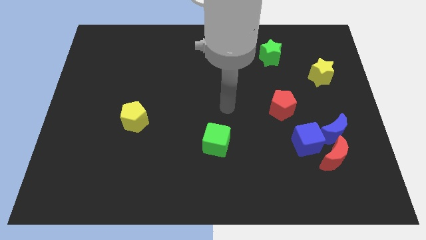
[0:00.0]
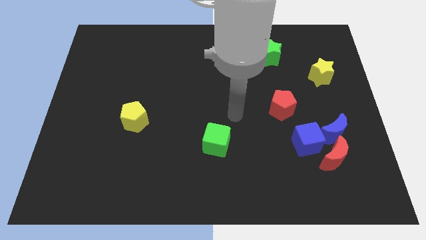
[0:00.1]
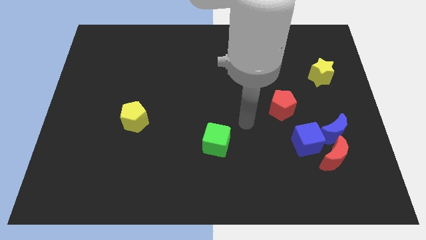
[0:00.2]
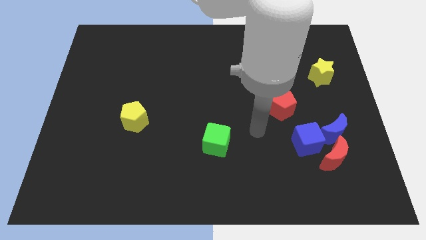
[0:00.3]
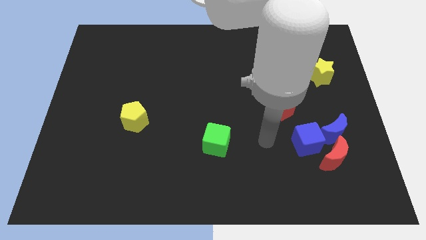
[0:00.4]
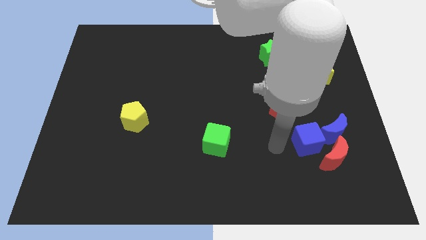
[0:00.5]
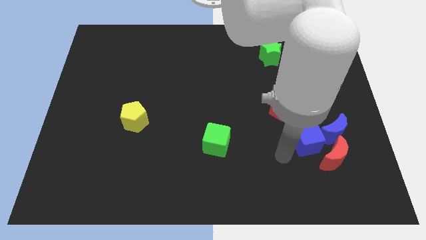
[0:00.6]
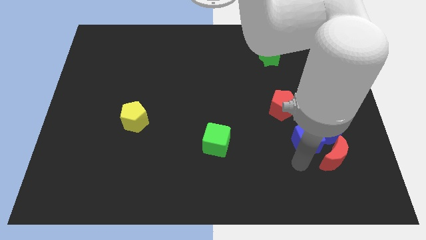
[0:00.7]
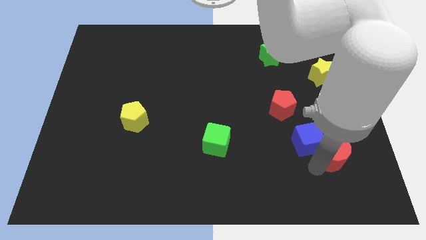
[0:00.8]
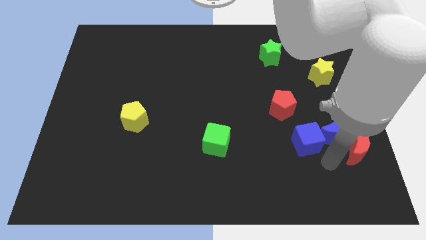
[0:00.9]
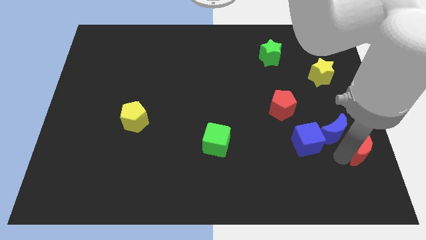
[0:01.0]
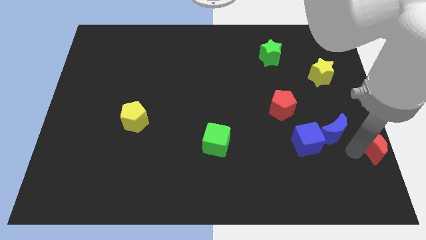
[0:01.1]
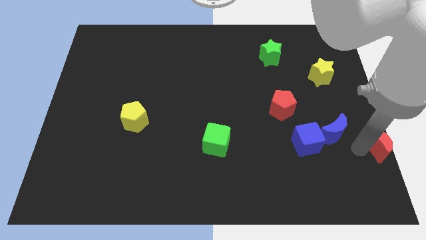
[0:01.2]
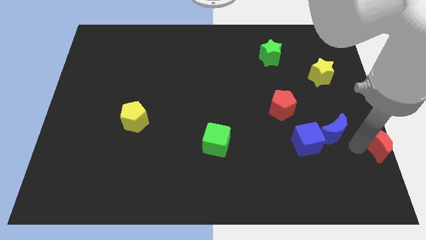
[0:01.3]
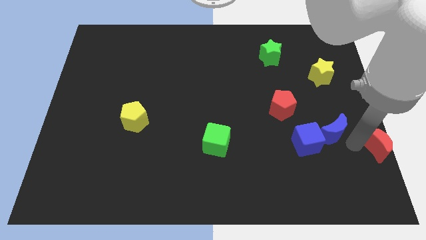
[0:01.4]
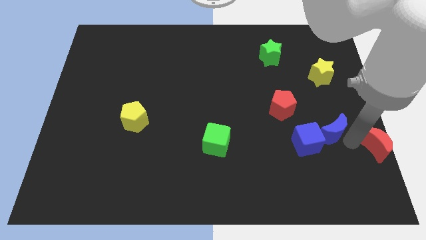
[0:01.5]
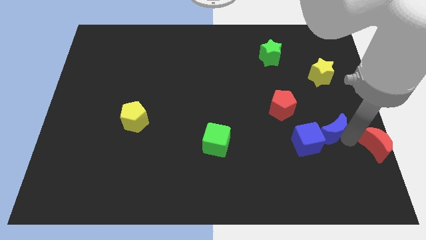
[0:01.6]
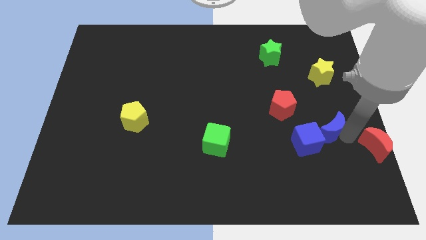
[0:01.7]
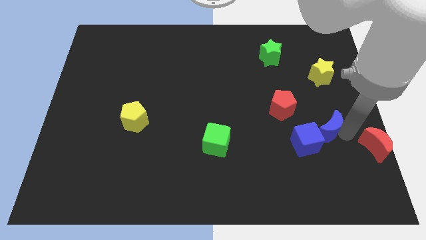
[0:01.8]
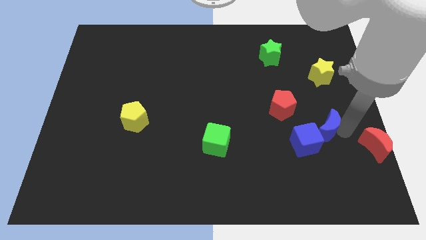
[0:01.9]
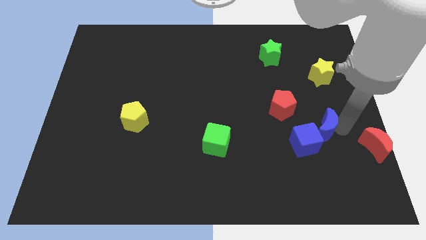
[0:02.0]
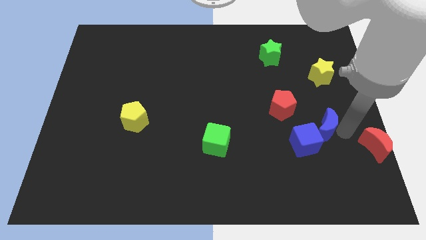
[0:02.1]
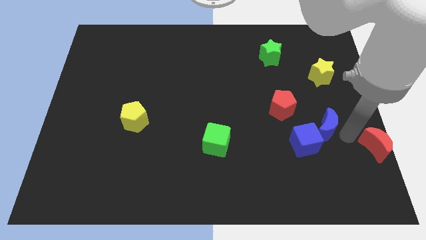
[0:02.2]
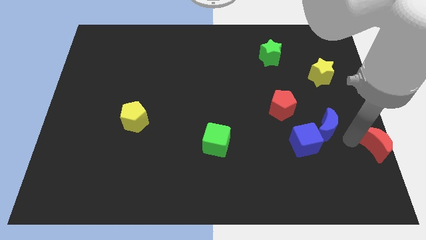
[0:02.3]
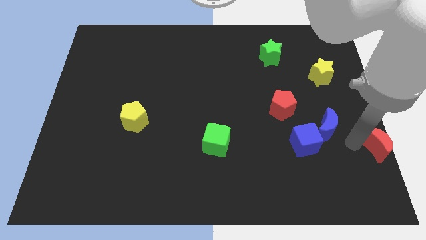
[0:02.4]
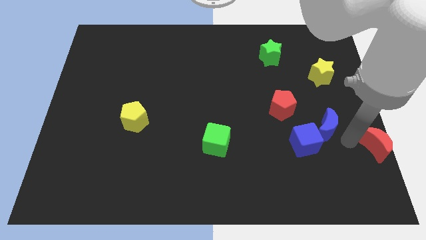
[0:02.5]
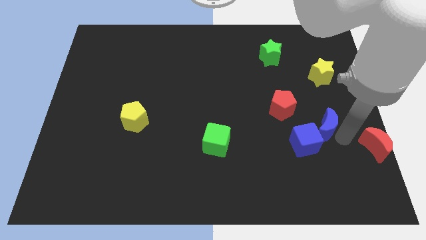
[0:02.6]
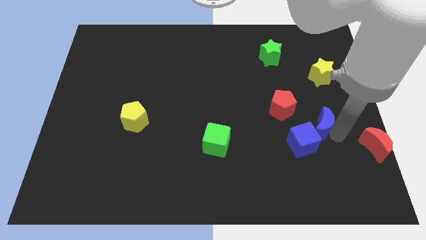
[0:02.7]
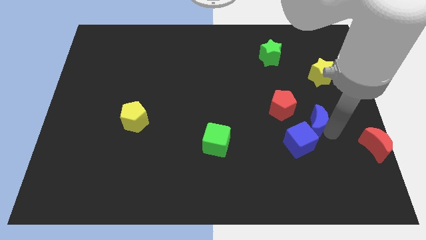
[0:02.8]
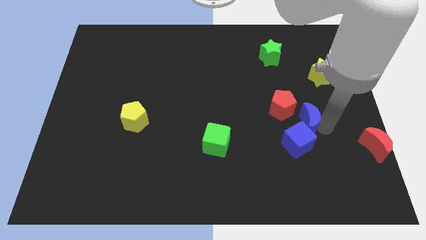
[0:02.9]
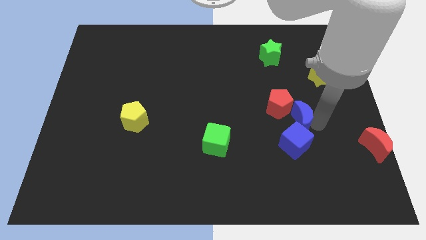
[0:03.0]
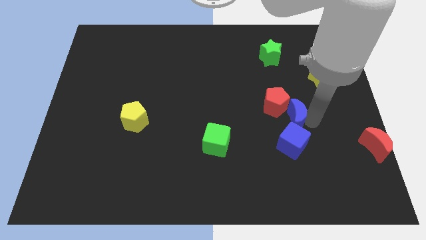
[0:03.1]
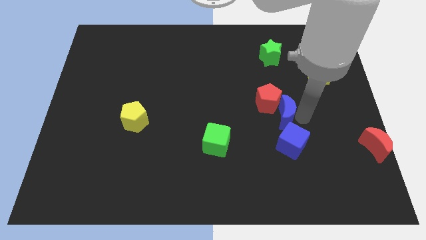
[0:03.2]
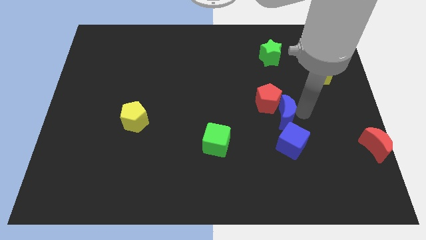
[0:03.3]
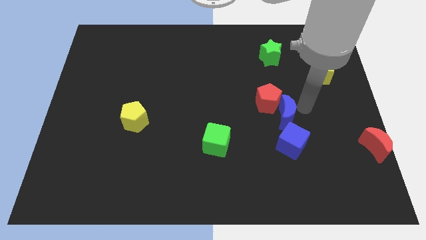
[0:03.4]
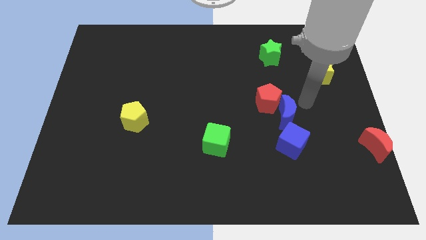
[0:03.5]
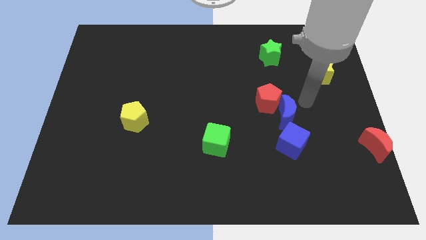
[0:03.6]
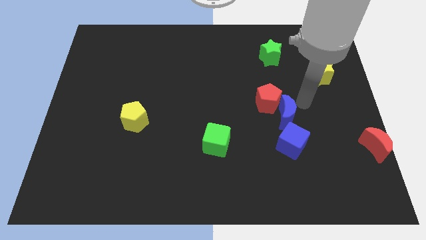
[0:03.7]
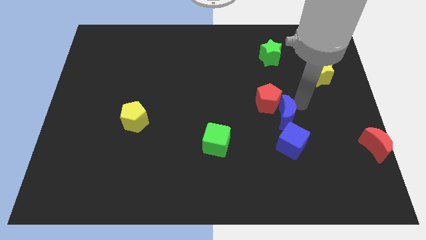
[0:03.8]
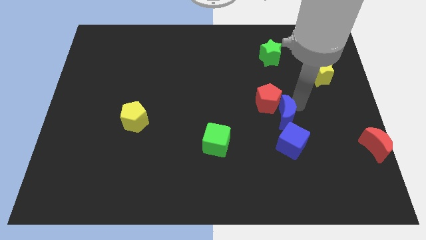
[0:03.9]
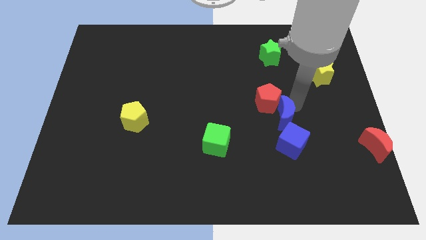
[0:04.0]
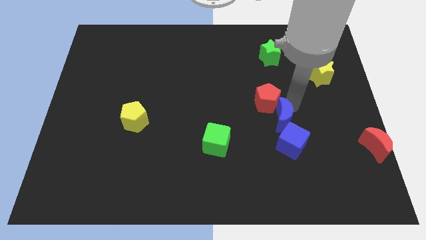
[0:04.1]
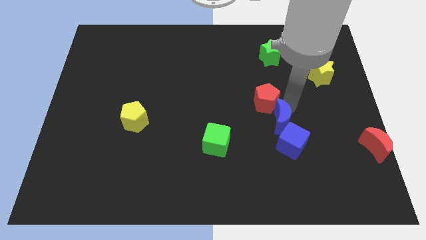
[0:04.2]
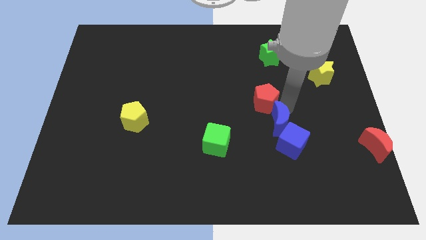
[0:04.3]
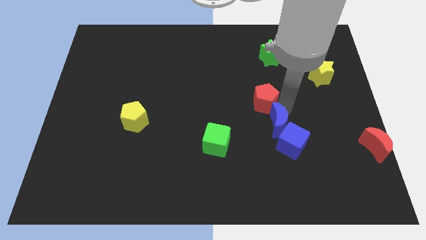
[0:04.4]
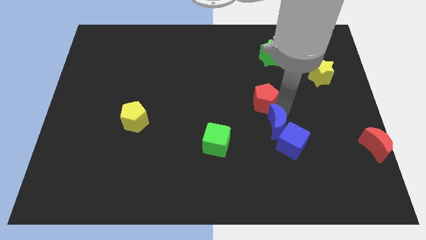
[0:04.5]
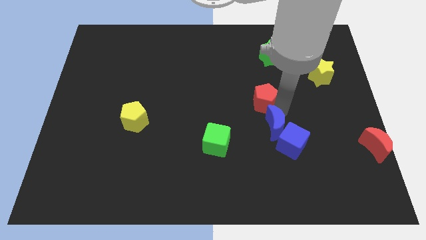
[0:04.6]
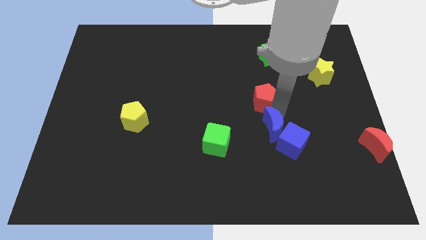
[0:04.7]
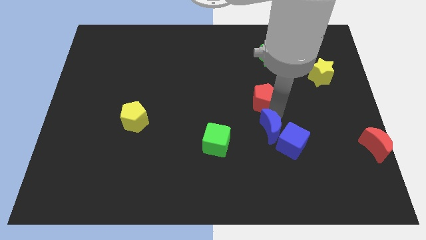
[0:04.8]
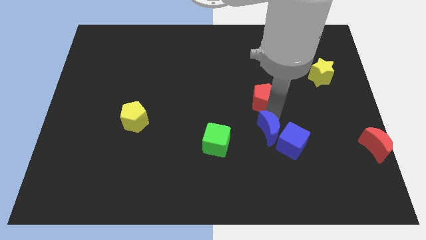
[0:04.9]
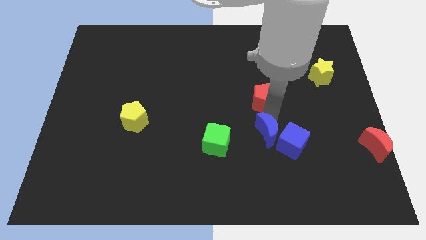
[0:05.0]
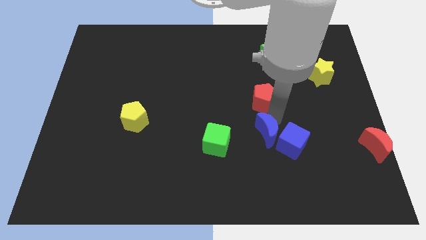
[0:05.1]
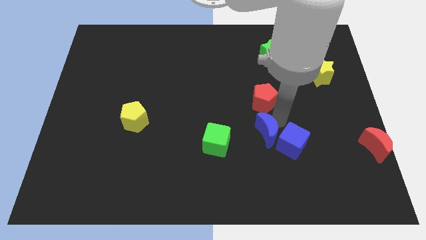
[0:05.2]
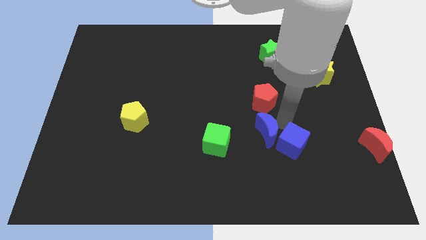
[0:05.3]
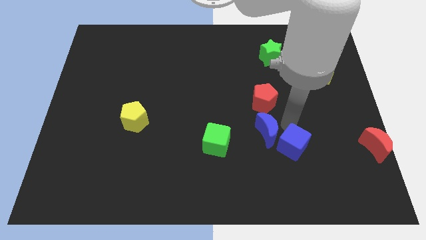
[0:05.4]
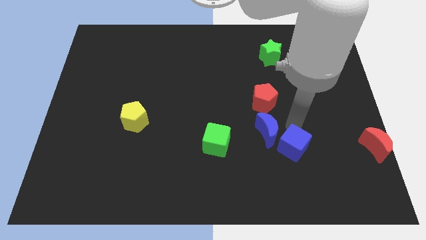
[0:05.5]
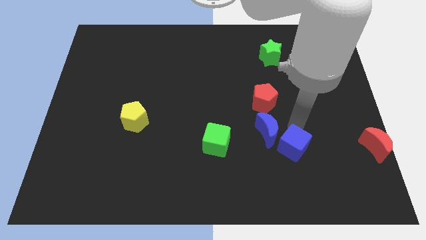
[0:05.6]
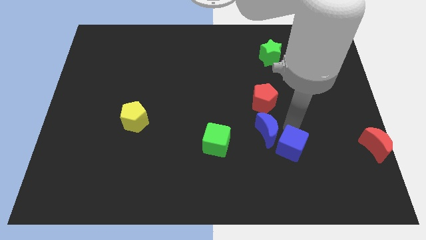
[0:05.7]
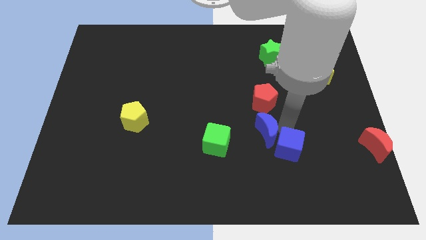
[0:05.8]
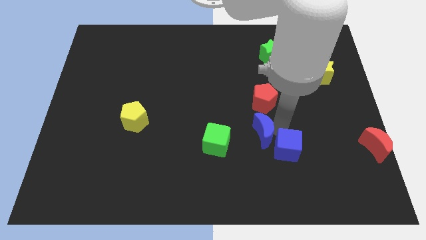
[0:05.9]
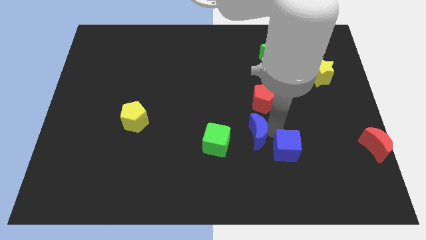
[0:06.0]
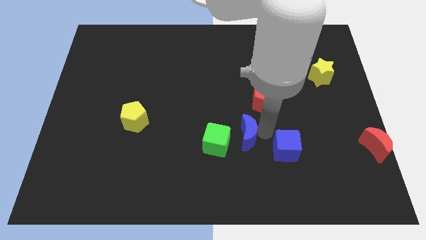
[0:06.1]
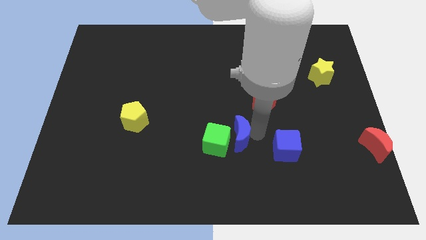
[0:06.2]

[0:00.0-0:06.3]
push the blue moon towards the green cube
